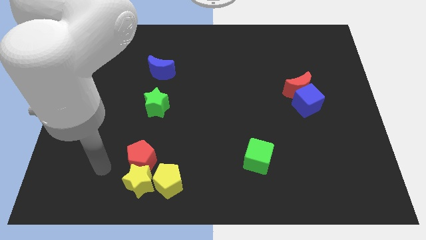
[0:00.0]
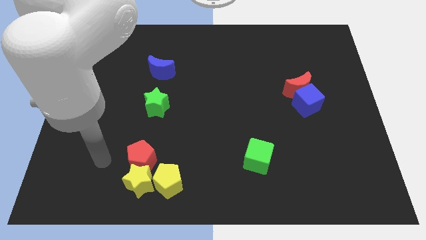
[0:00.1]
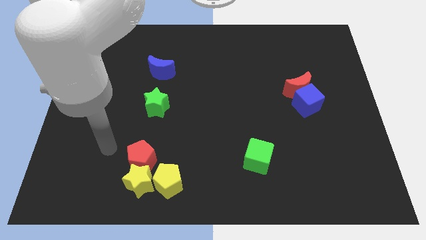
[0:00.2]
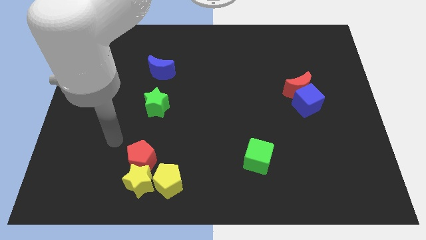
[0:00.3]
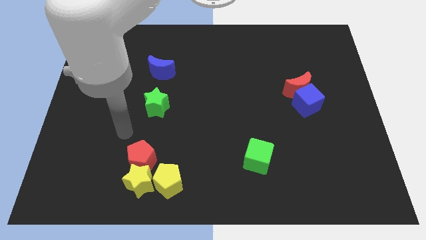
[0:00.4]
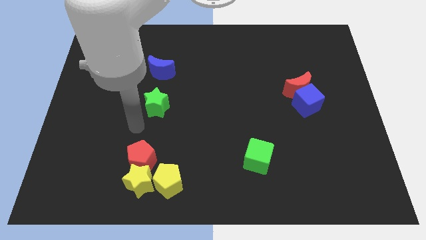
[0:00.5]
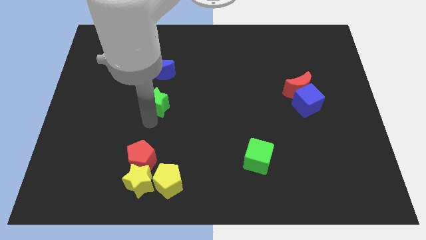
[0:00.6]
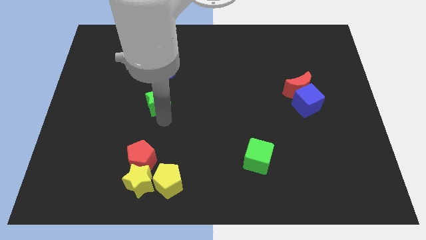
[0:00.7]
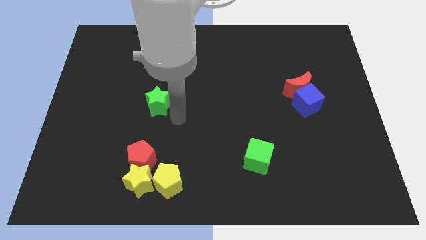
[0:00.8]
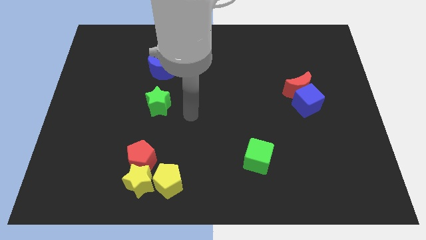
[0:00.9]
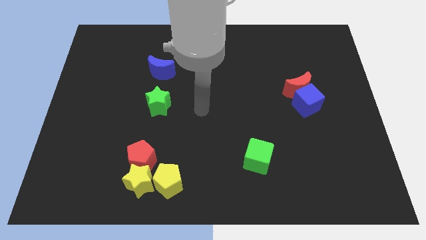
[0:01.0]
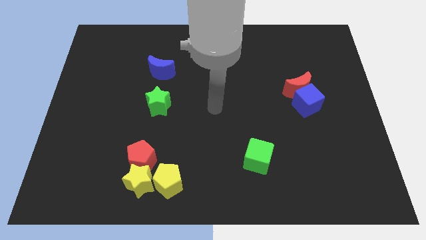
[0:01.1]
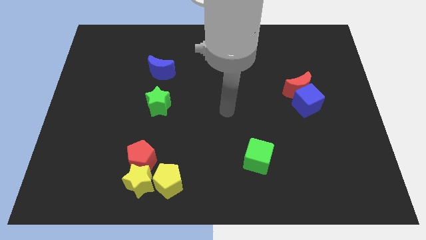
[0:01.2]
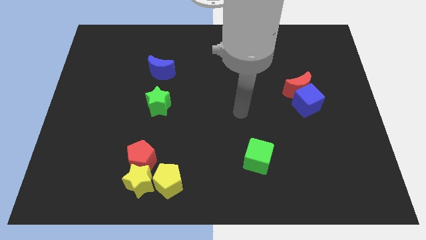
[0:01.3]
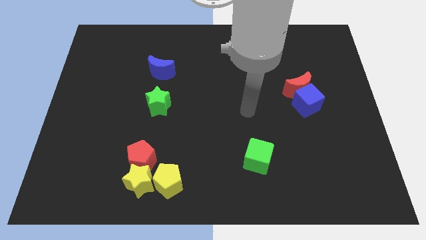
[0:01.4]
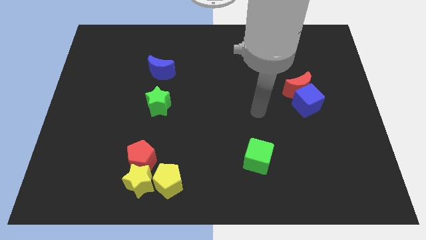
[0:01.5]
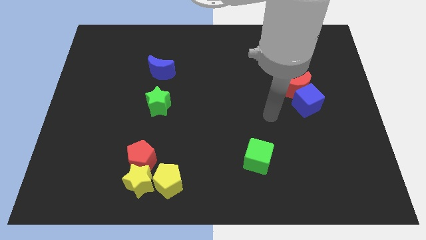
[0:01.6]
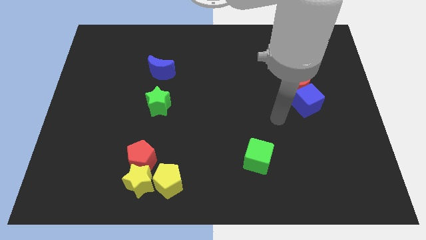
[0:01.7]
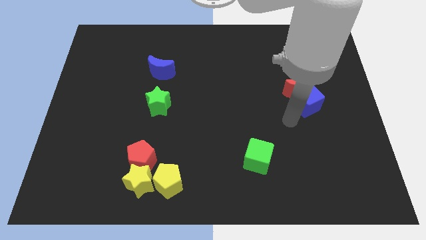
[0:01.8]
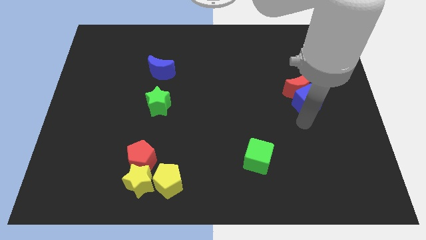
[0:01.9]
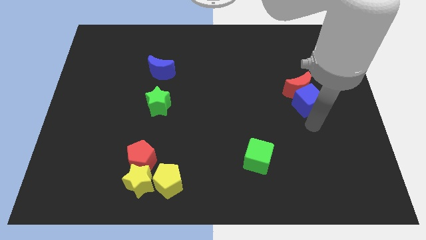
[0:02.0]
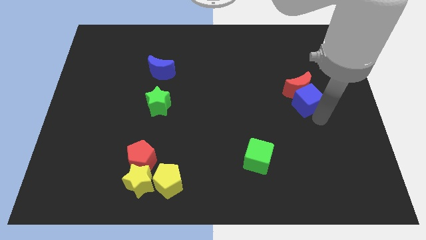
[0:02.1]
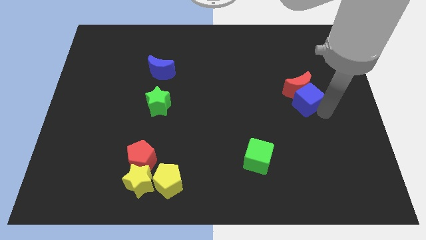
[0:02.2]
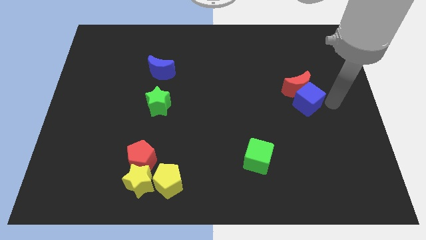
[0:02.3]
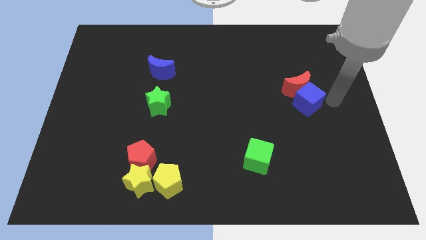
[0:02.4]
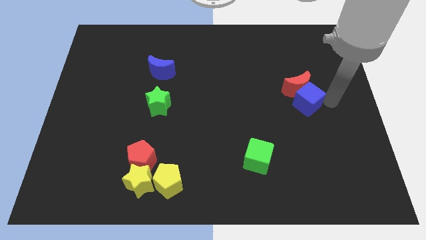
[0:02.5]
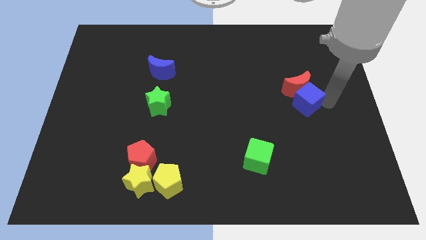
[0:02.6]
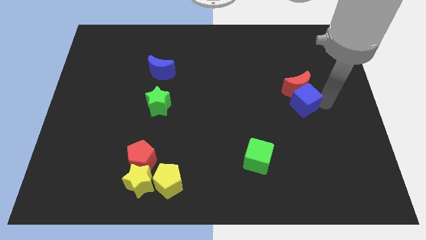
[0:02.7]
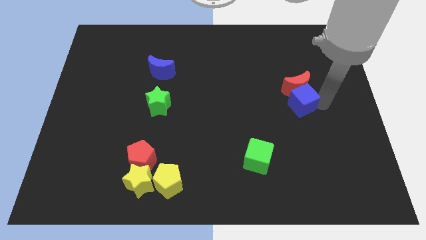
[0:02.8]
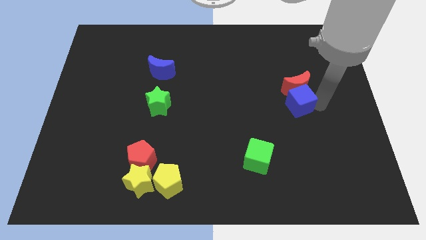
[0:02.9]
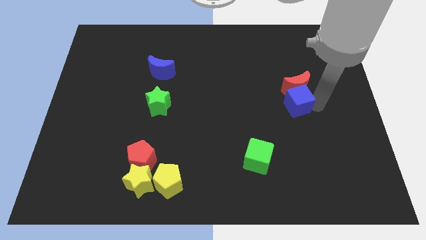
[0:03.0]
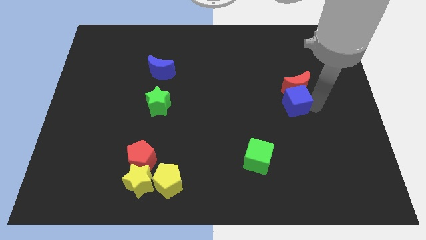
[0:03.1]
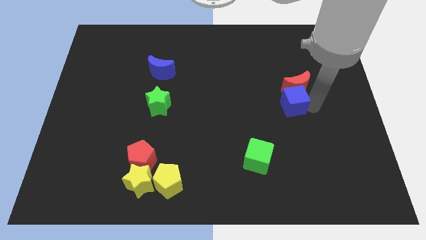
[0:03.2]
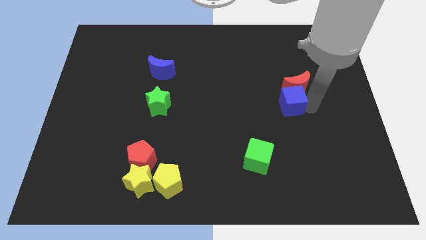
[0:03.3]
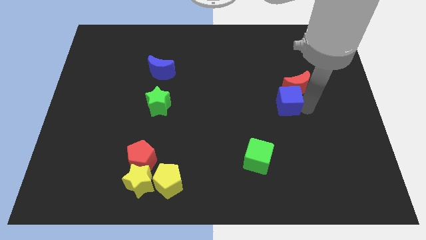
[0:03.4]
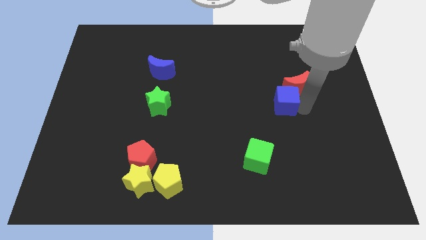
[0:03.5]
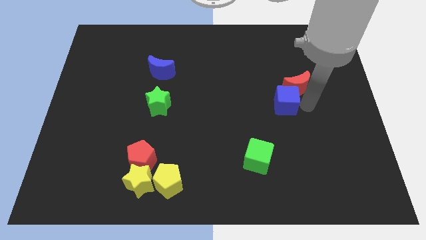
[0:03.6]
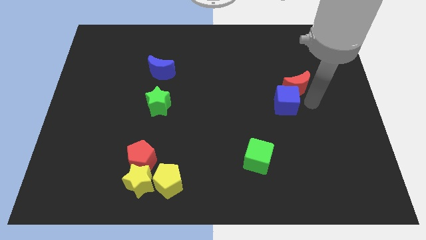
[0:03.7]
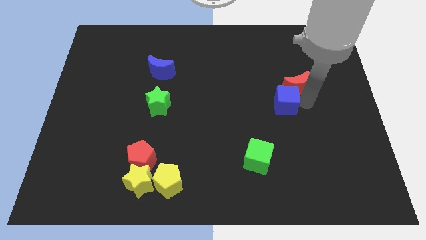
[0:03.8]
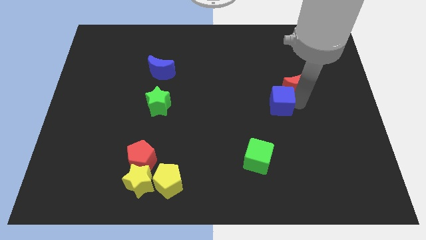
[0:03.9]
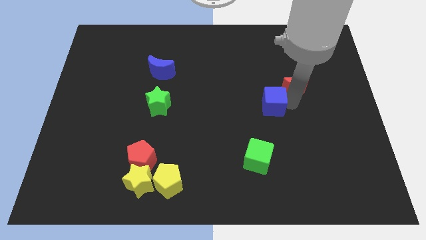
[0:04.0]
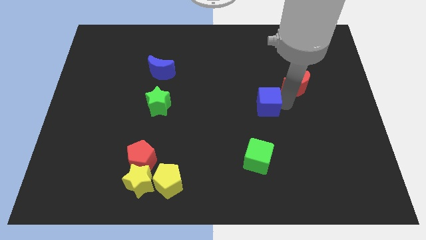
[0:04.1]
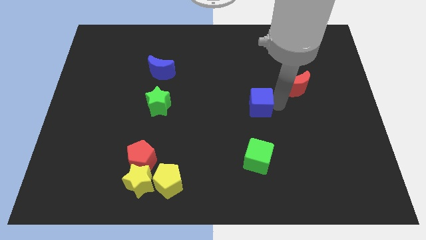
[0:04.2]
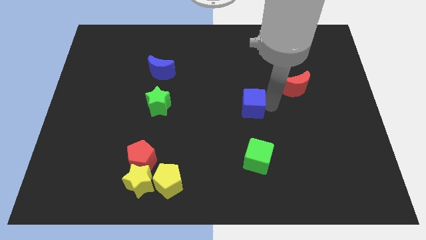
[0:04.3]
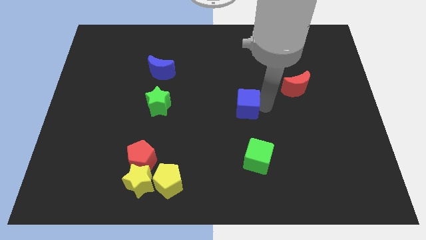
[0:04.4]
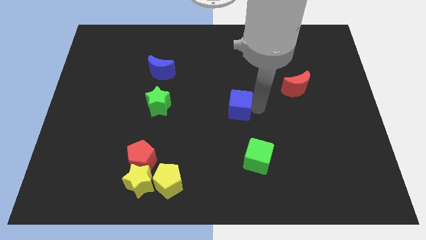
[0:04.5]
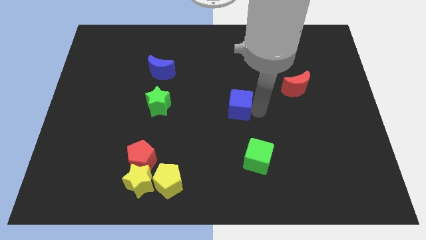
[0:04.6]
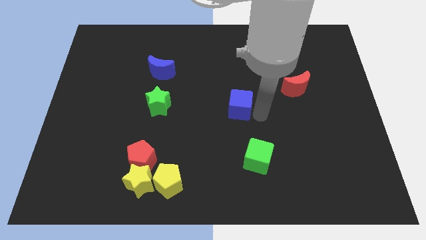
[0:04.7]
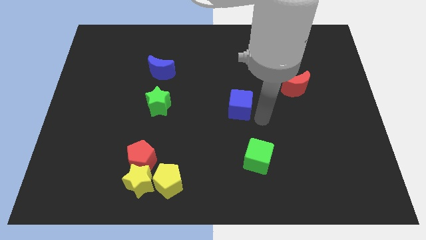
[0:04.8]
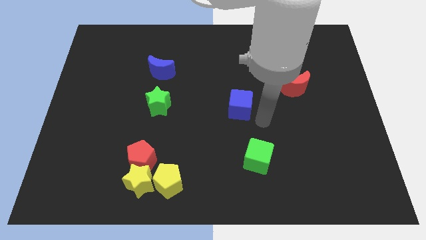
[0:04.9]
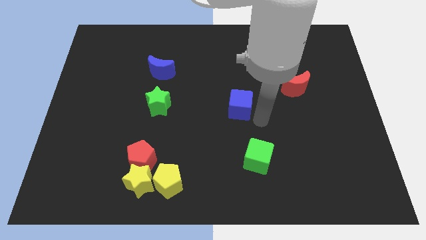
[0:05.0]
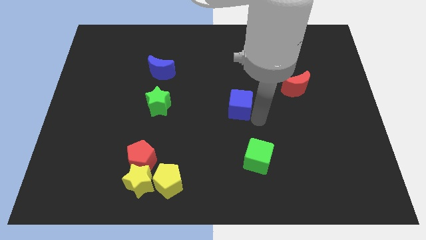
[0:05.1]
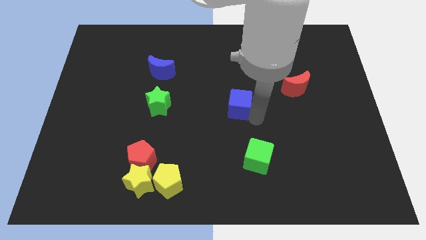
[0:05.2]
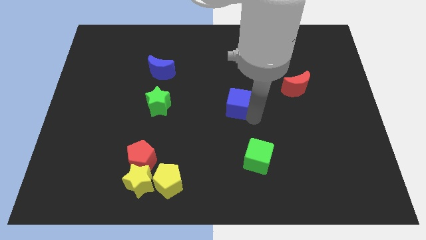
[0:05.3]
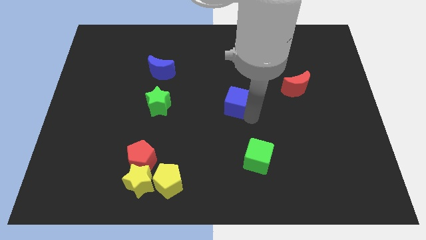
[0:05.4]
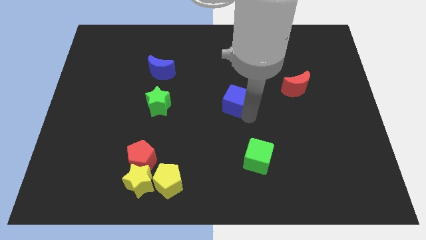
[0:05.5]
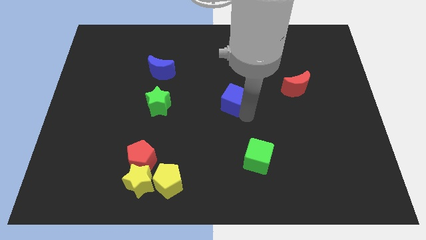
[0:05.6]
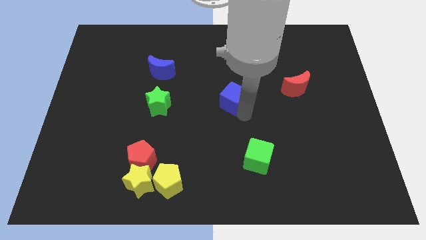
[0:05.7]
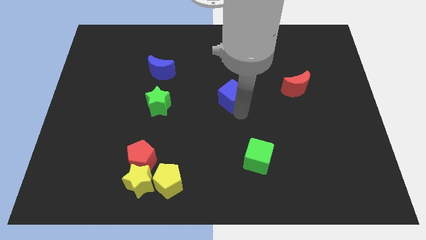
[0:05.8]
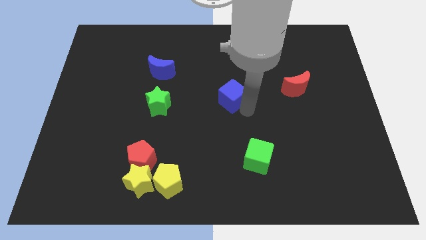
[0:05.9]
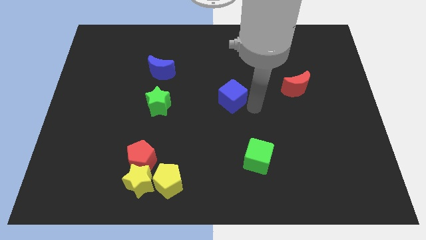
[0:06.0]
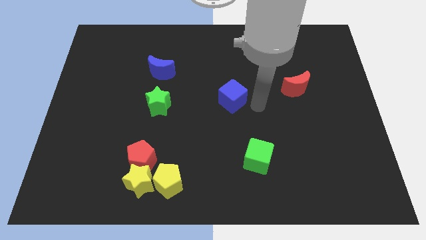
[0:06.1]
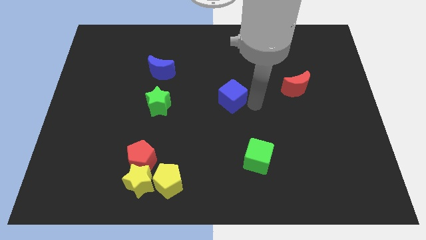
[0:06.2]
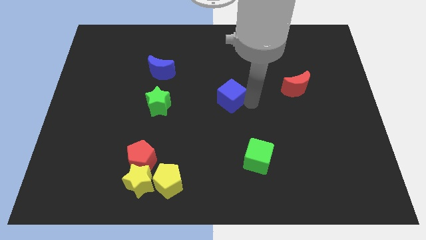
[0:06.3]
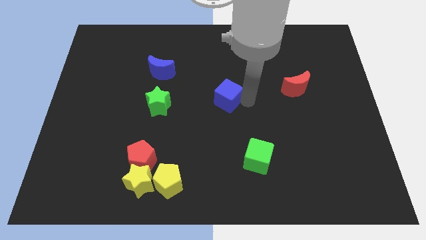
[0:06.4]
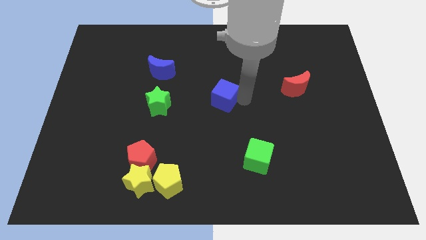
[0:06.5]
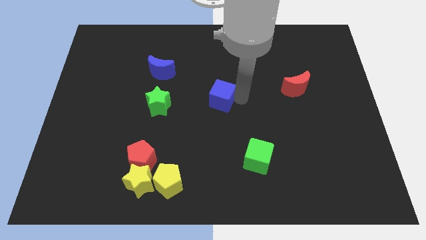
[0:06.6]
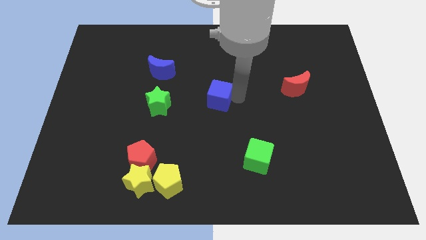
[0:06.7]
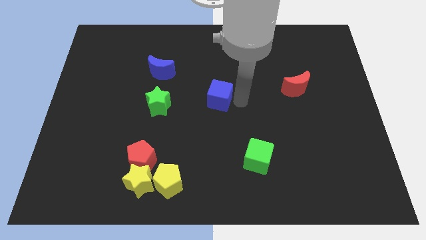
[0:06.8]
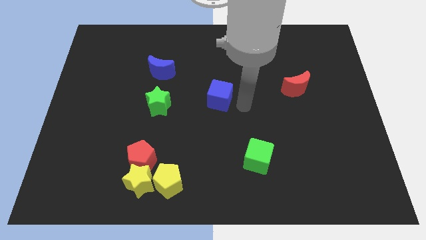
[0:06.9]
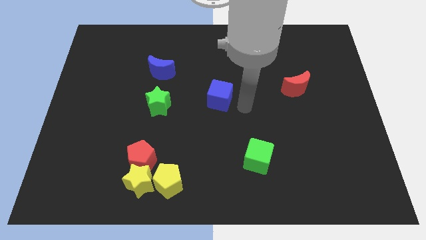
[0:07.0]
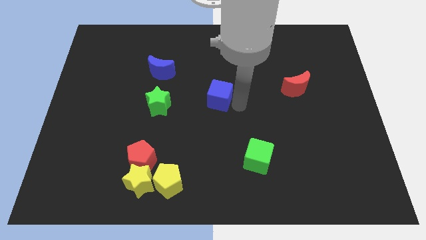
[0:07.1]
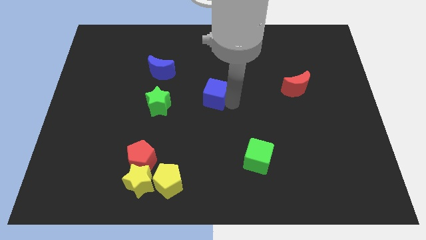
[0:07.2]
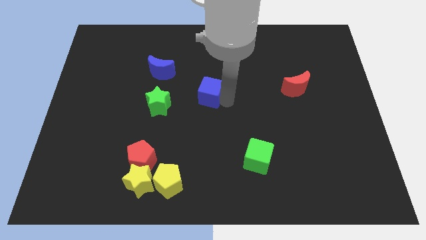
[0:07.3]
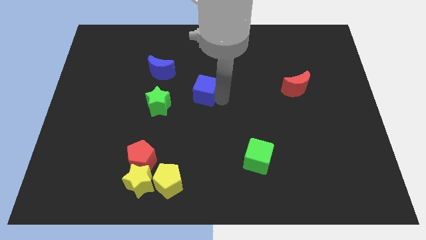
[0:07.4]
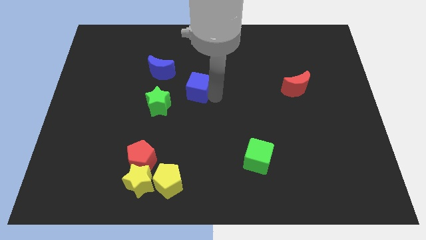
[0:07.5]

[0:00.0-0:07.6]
move the blue cube to the bottom right side of the blue moon
